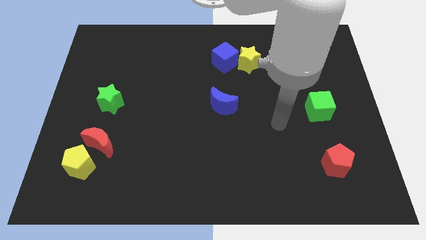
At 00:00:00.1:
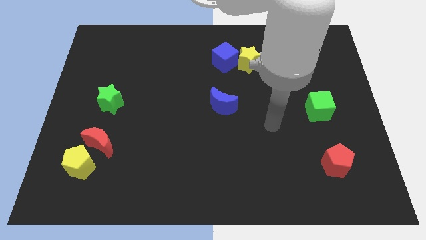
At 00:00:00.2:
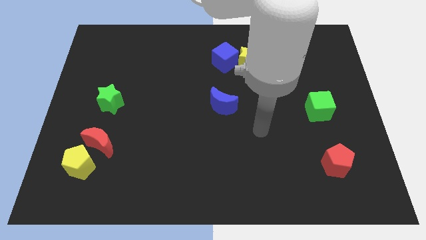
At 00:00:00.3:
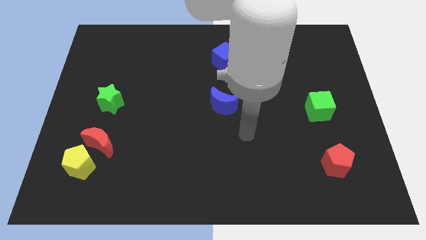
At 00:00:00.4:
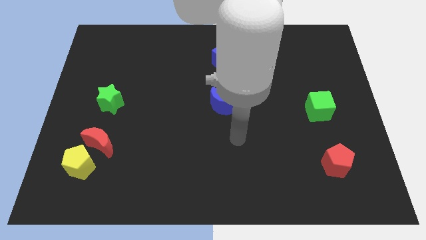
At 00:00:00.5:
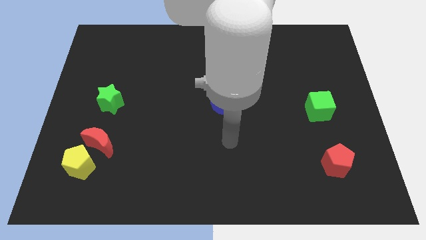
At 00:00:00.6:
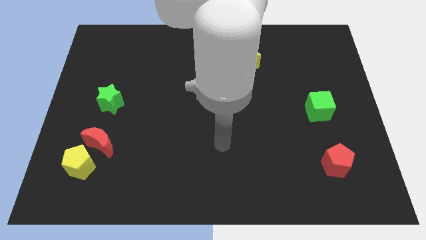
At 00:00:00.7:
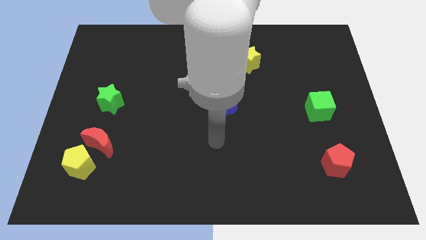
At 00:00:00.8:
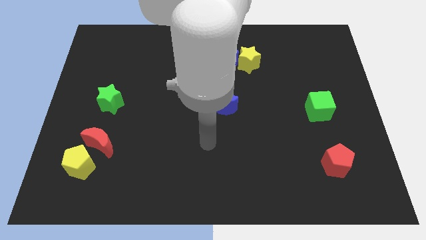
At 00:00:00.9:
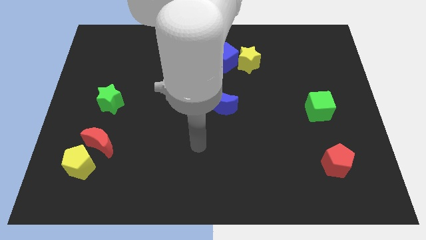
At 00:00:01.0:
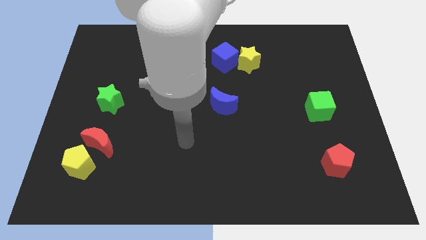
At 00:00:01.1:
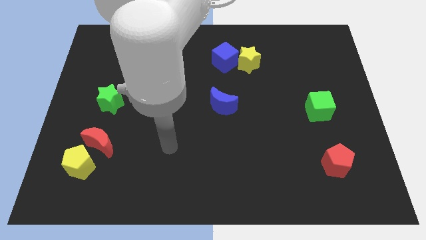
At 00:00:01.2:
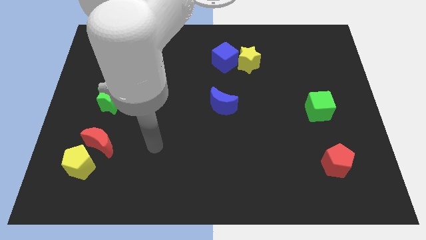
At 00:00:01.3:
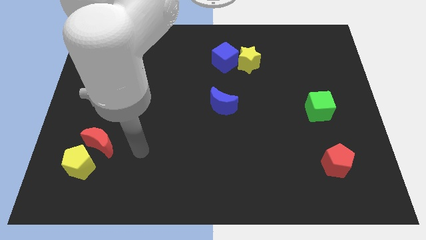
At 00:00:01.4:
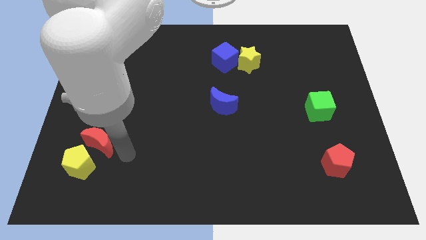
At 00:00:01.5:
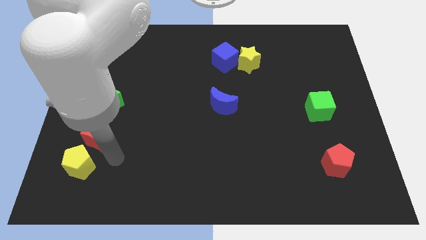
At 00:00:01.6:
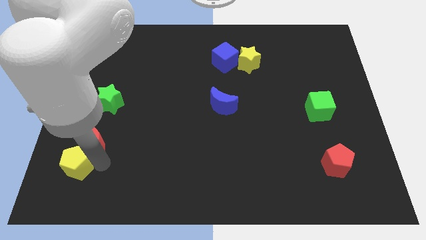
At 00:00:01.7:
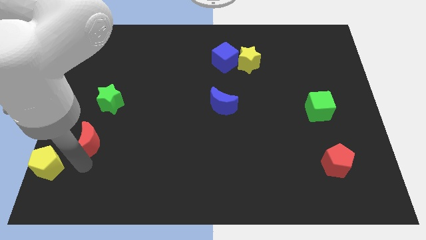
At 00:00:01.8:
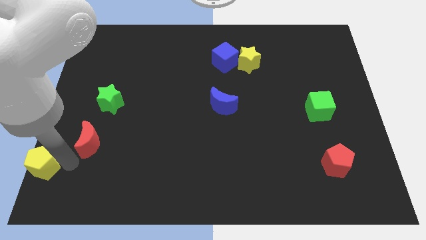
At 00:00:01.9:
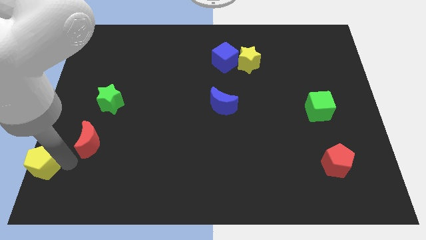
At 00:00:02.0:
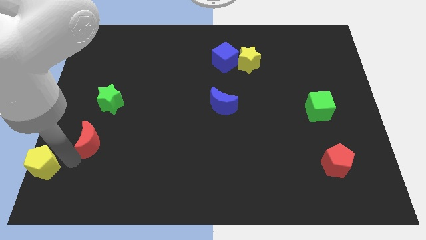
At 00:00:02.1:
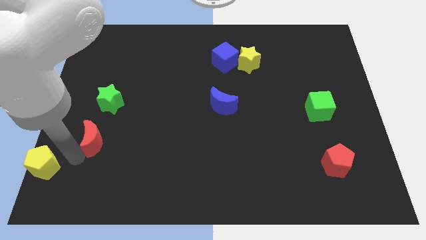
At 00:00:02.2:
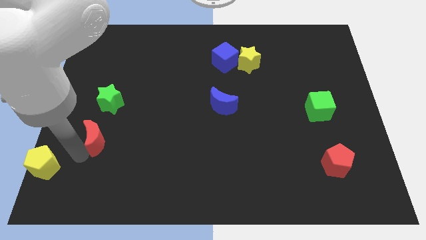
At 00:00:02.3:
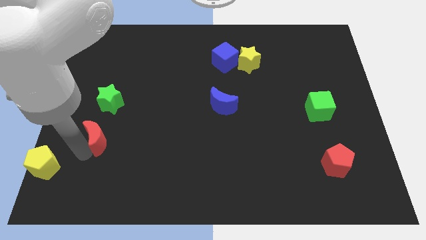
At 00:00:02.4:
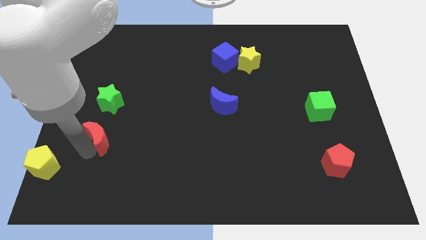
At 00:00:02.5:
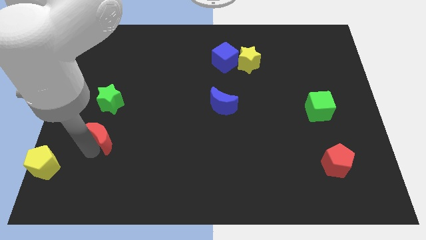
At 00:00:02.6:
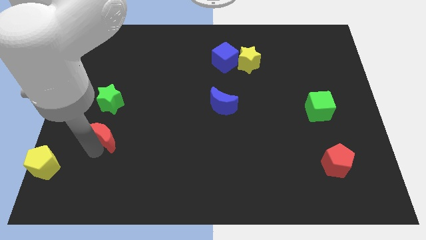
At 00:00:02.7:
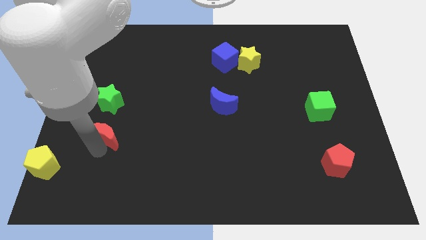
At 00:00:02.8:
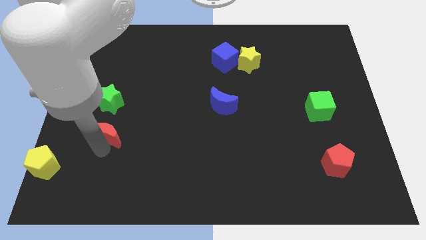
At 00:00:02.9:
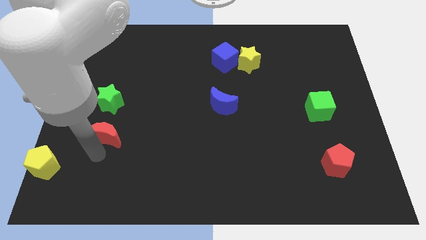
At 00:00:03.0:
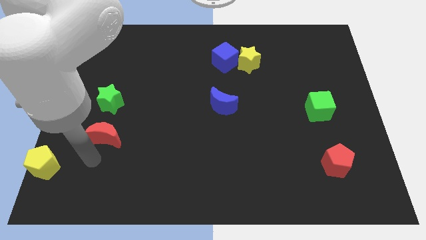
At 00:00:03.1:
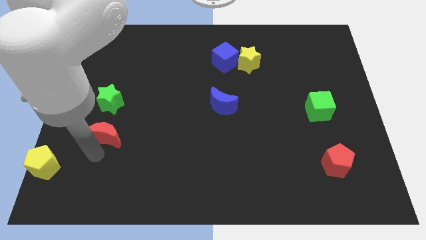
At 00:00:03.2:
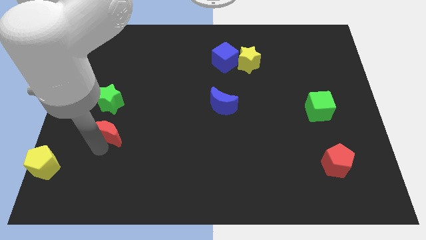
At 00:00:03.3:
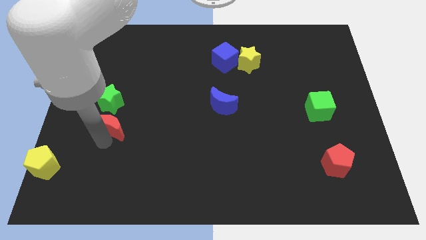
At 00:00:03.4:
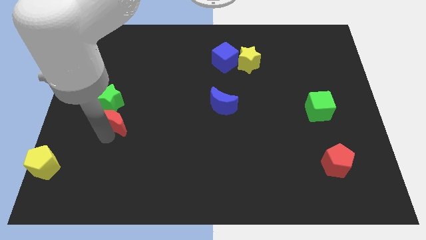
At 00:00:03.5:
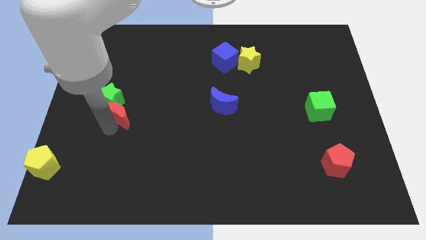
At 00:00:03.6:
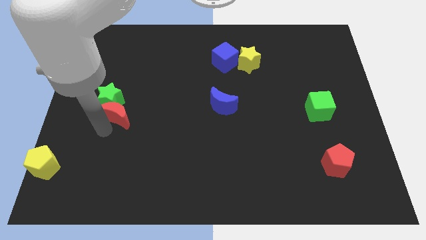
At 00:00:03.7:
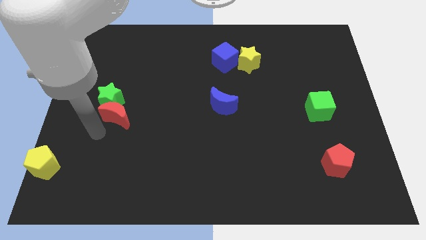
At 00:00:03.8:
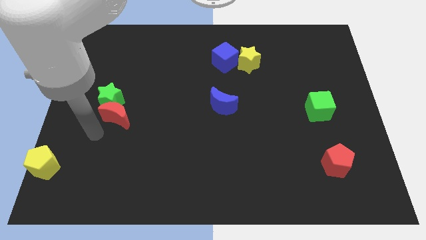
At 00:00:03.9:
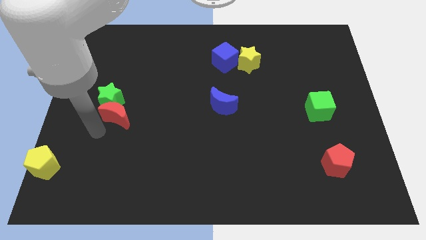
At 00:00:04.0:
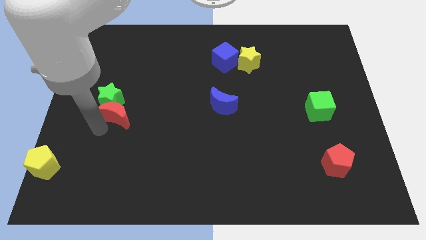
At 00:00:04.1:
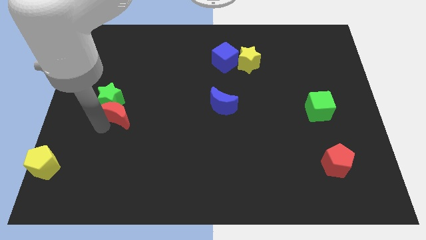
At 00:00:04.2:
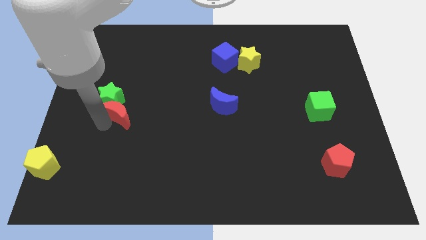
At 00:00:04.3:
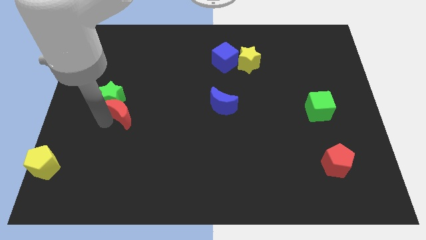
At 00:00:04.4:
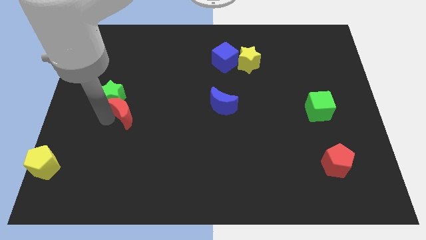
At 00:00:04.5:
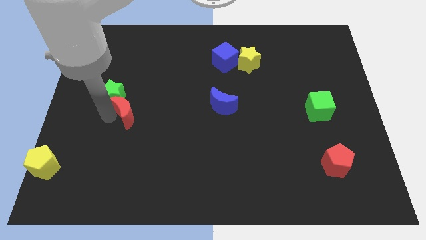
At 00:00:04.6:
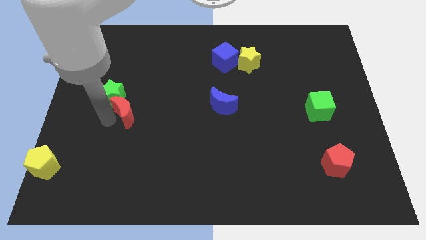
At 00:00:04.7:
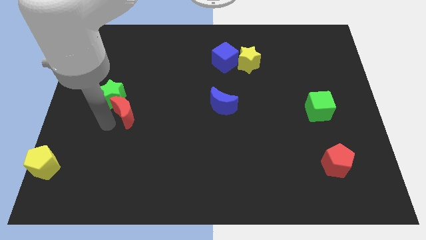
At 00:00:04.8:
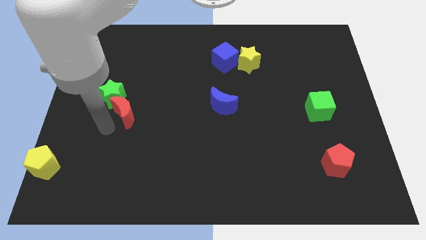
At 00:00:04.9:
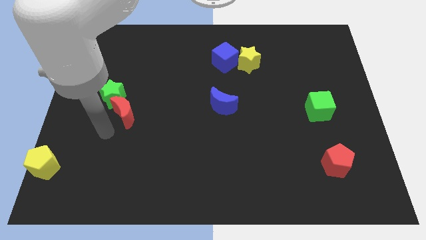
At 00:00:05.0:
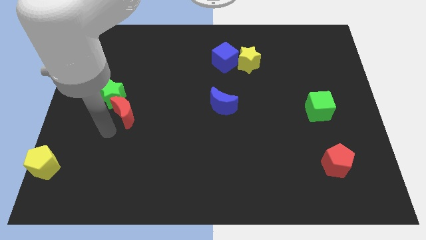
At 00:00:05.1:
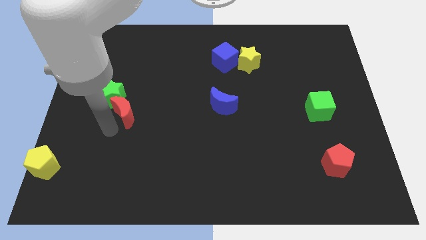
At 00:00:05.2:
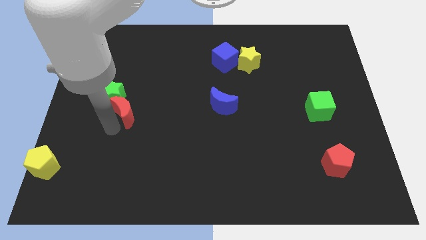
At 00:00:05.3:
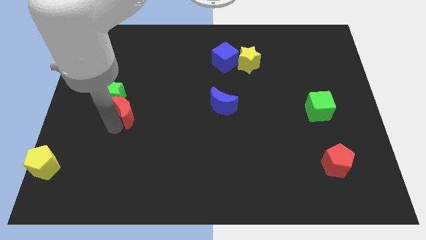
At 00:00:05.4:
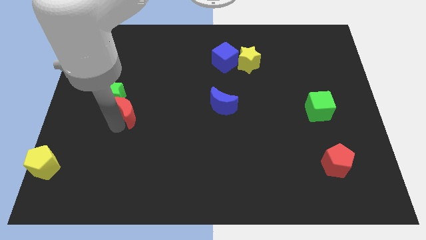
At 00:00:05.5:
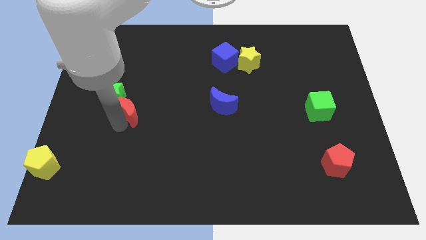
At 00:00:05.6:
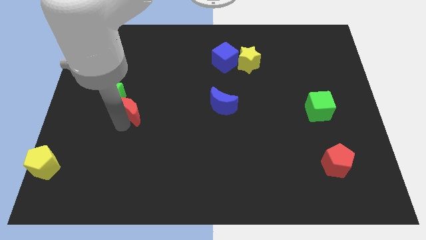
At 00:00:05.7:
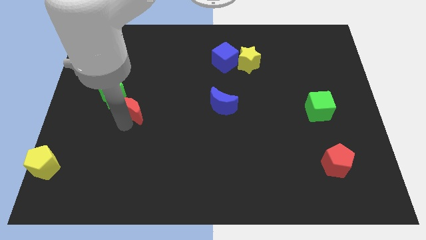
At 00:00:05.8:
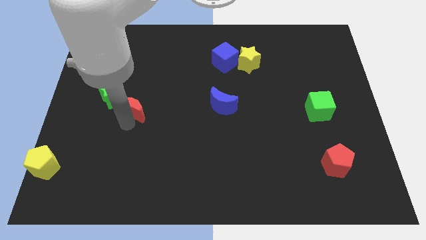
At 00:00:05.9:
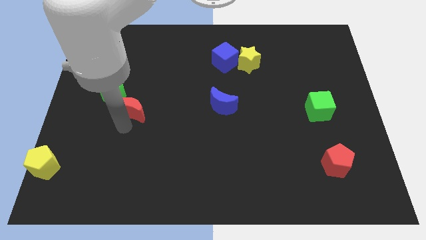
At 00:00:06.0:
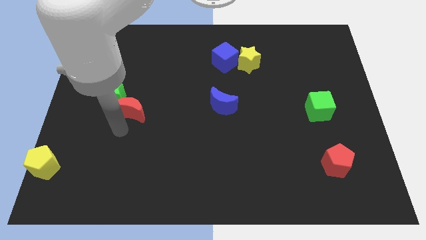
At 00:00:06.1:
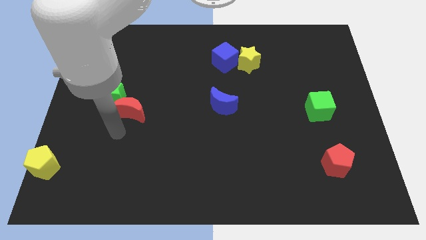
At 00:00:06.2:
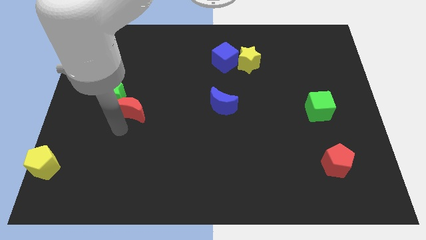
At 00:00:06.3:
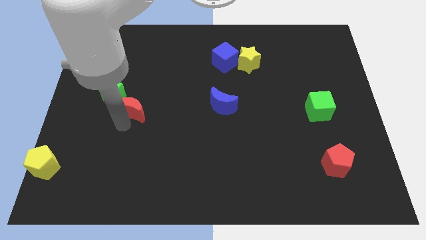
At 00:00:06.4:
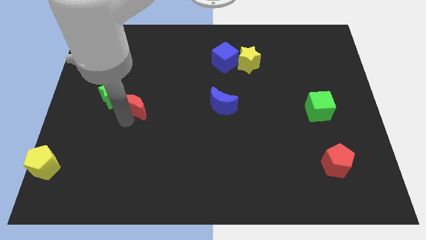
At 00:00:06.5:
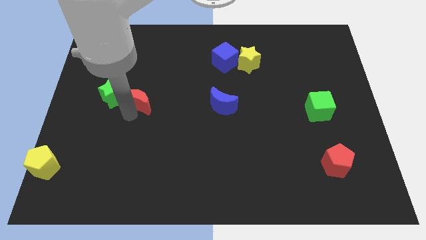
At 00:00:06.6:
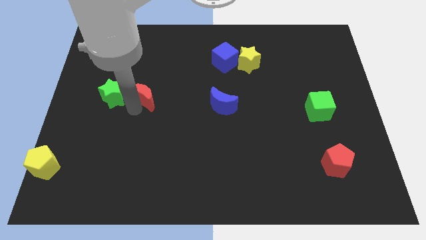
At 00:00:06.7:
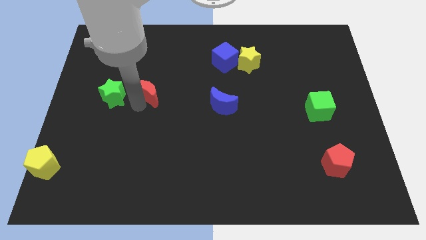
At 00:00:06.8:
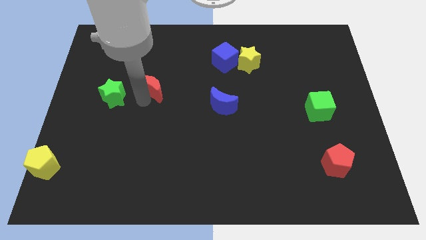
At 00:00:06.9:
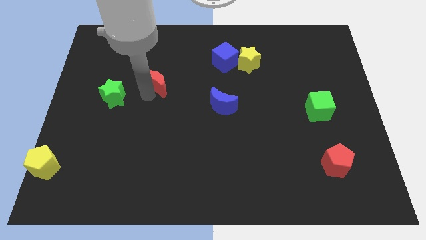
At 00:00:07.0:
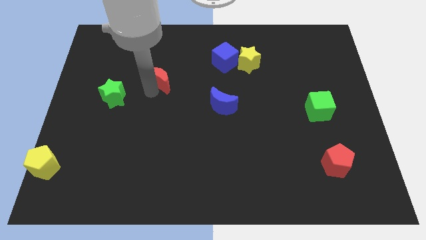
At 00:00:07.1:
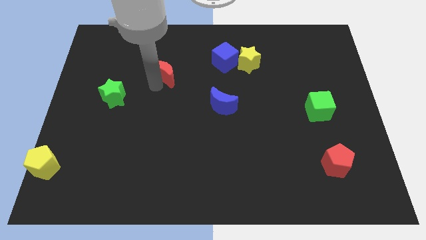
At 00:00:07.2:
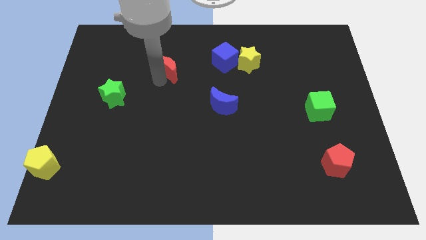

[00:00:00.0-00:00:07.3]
put the red moon just left of the blue cube

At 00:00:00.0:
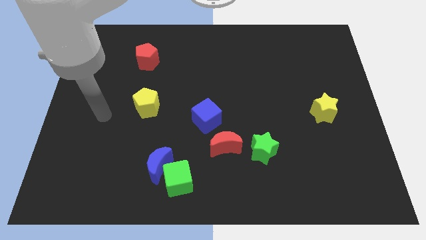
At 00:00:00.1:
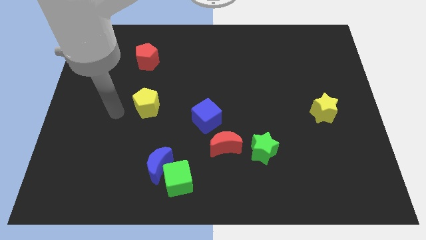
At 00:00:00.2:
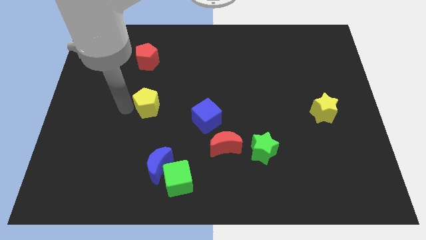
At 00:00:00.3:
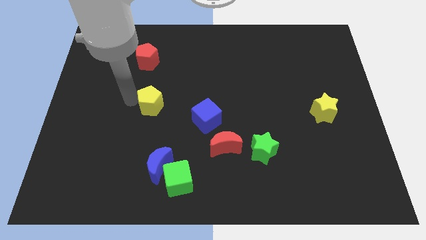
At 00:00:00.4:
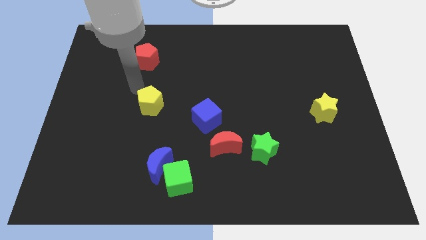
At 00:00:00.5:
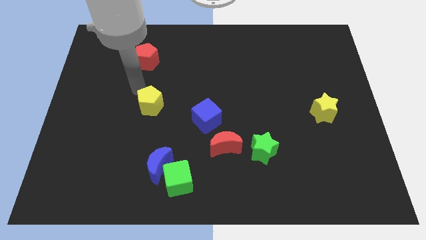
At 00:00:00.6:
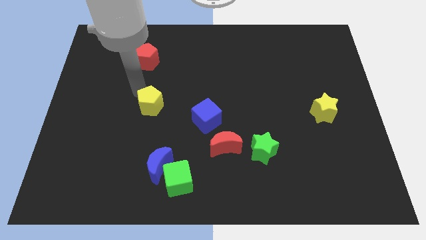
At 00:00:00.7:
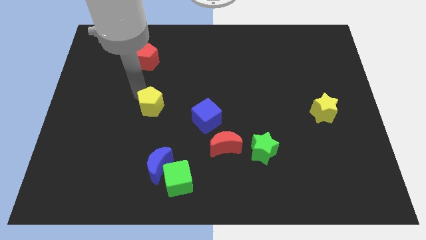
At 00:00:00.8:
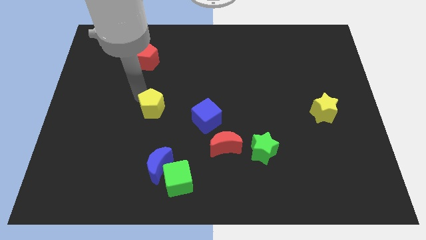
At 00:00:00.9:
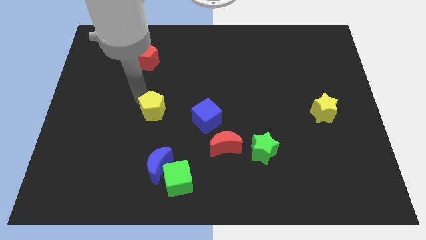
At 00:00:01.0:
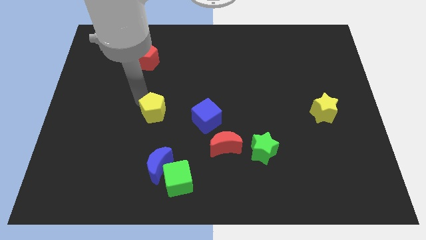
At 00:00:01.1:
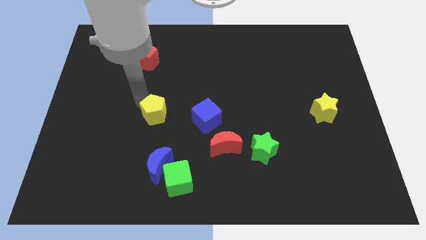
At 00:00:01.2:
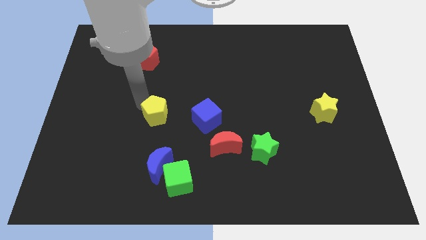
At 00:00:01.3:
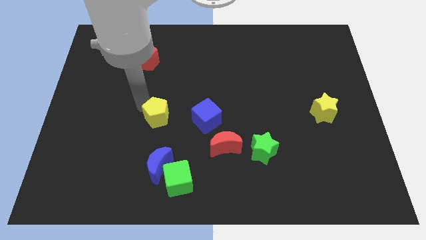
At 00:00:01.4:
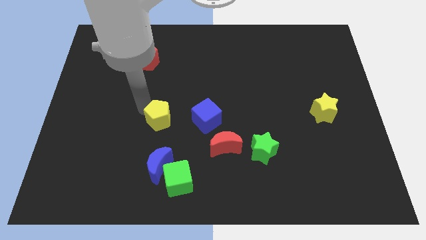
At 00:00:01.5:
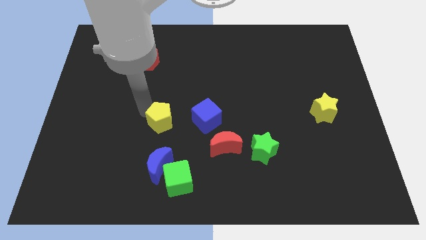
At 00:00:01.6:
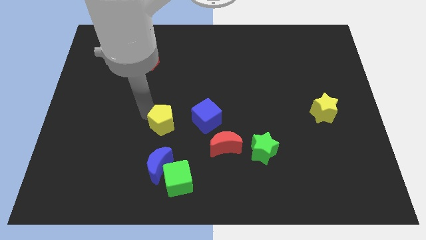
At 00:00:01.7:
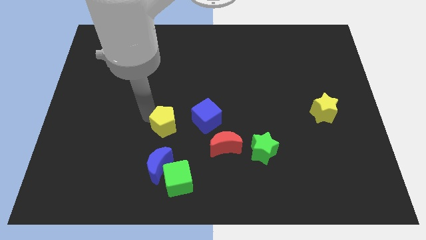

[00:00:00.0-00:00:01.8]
move the yellow pentagon to the top of the green cube
